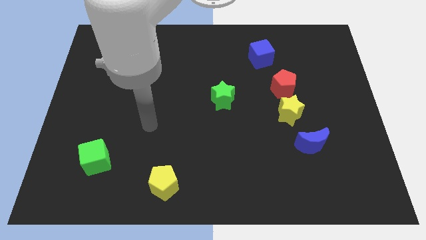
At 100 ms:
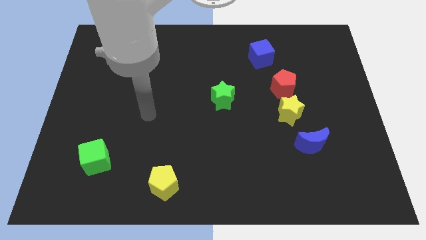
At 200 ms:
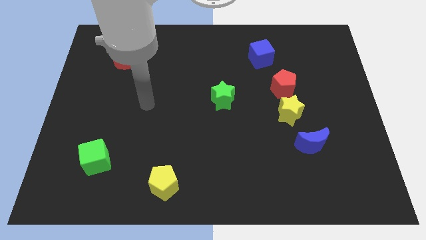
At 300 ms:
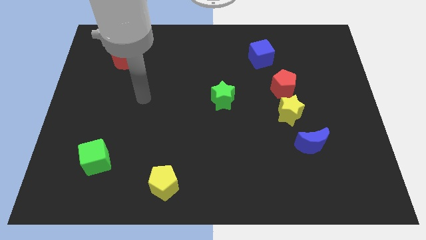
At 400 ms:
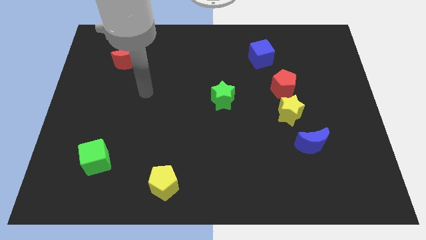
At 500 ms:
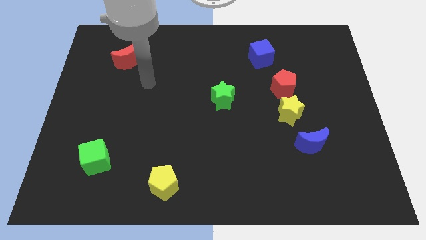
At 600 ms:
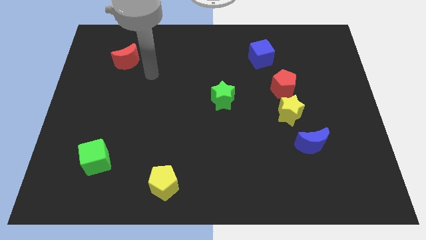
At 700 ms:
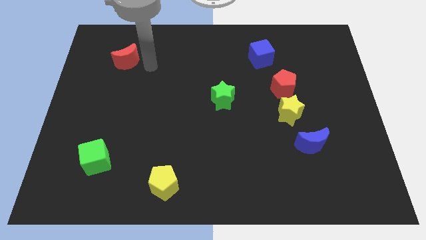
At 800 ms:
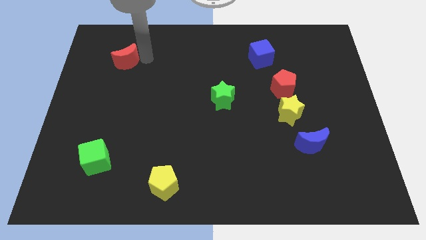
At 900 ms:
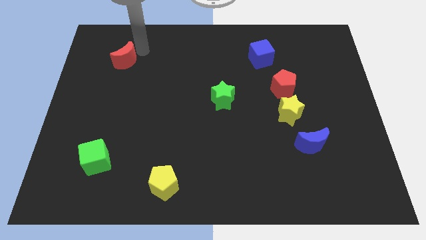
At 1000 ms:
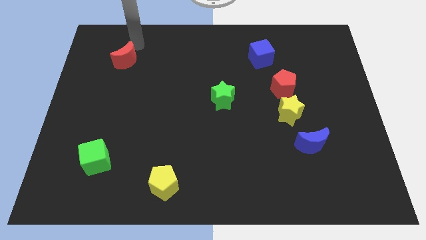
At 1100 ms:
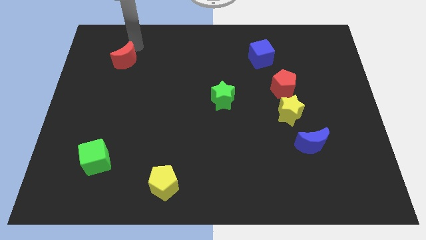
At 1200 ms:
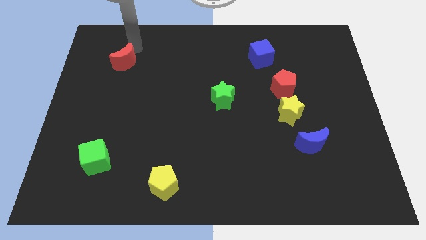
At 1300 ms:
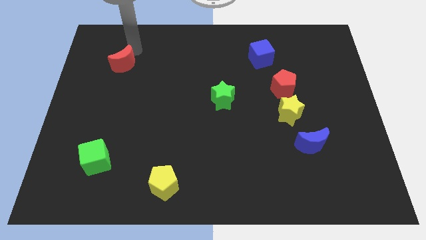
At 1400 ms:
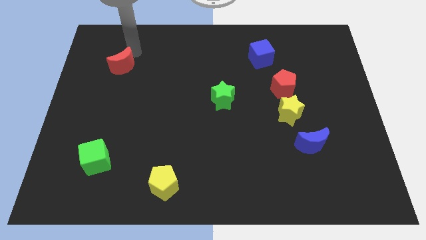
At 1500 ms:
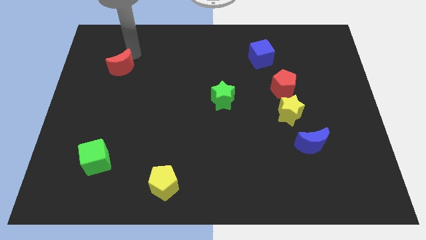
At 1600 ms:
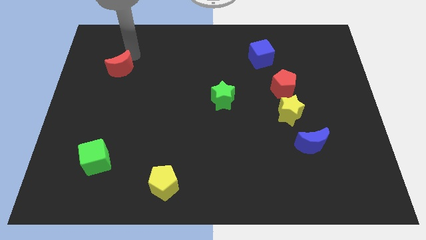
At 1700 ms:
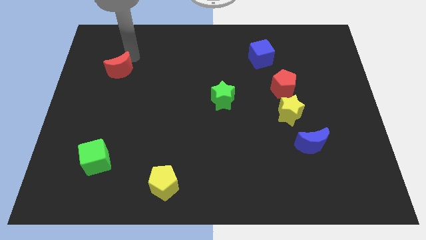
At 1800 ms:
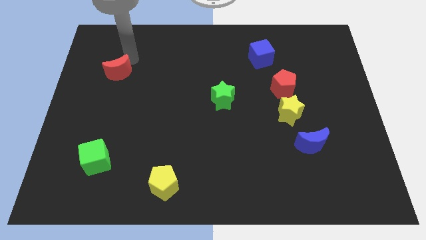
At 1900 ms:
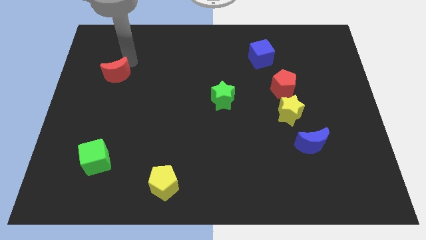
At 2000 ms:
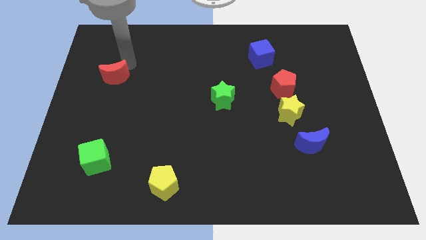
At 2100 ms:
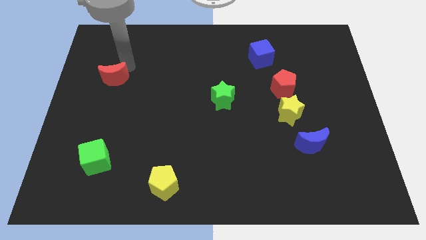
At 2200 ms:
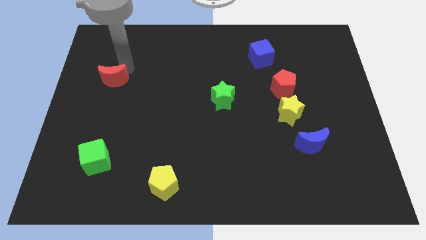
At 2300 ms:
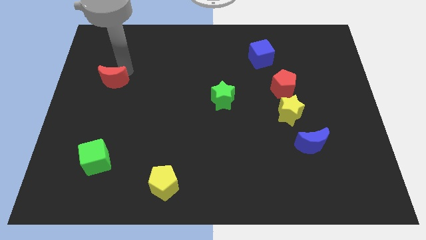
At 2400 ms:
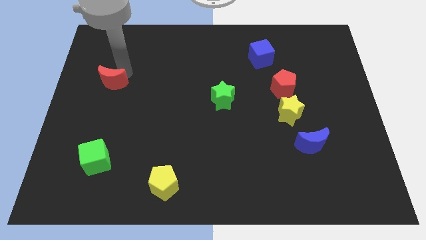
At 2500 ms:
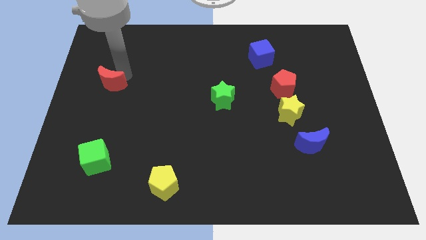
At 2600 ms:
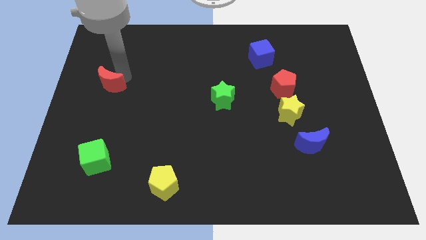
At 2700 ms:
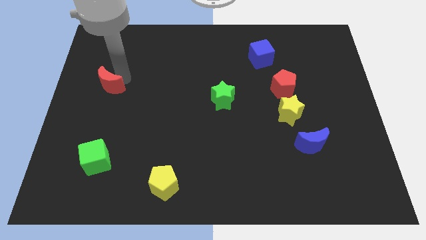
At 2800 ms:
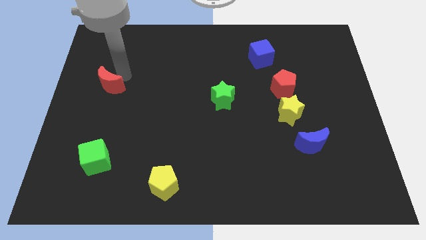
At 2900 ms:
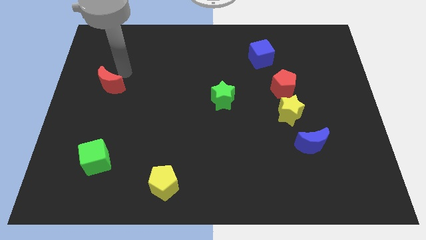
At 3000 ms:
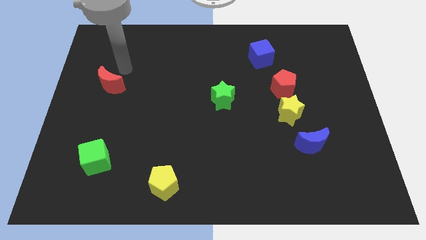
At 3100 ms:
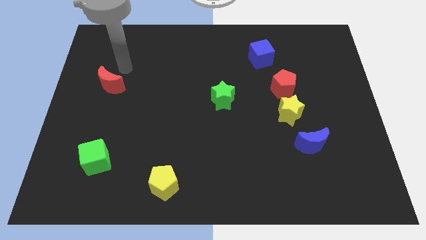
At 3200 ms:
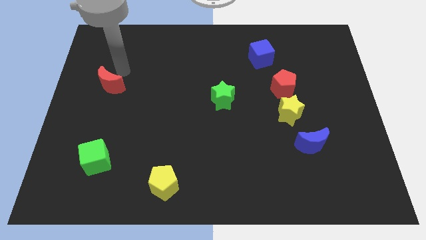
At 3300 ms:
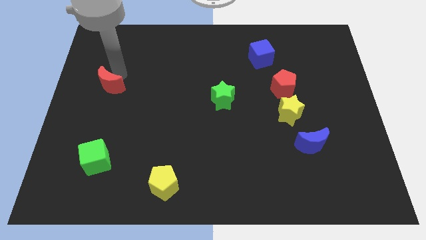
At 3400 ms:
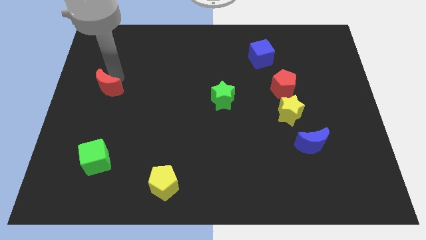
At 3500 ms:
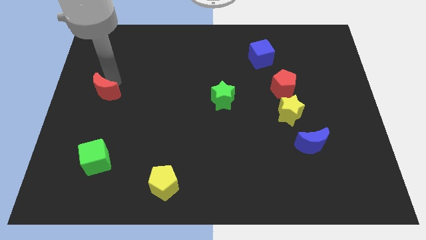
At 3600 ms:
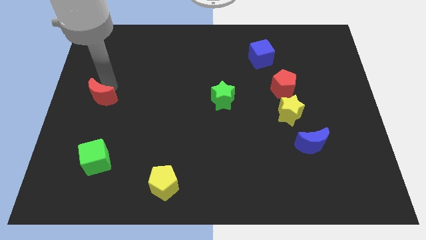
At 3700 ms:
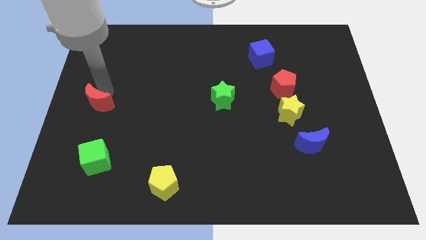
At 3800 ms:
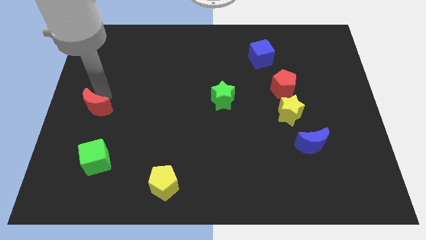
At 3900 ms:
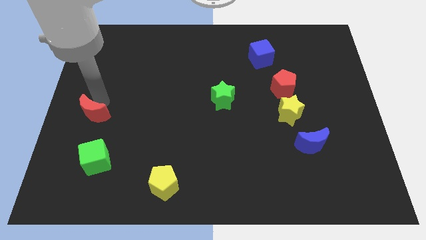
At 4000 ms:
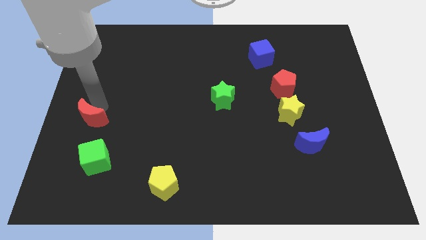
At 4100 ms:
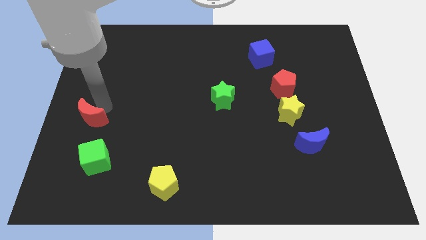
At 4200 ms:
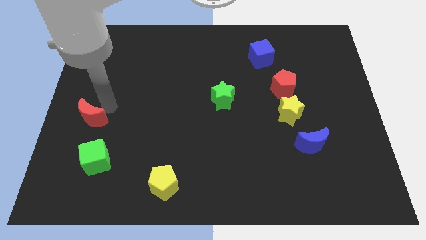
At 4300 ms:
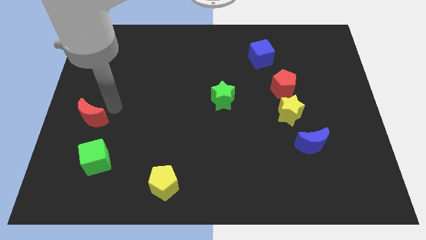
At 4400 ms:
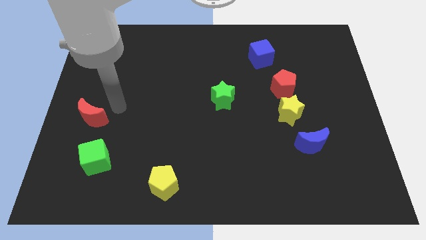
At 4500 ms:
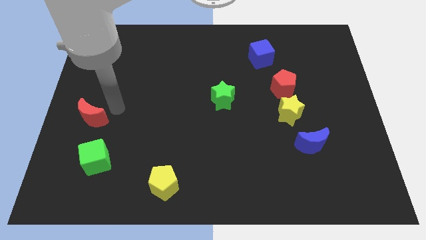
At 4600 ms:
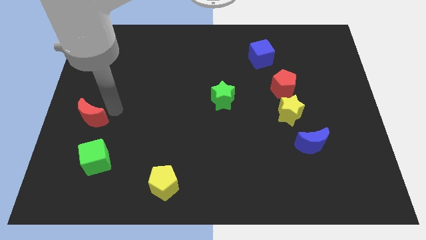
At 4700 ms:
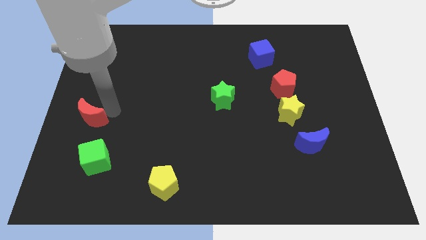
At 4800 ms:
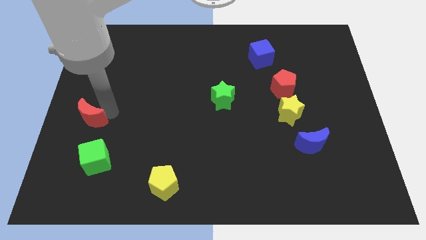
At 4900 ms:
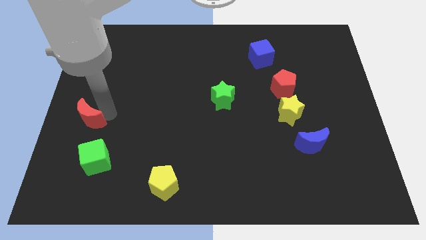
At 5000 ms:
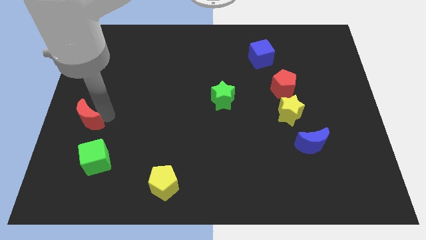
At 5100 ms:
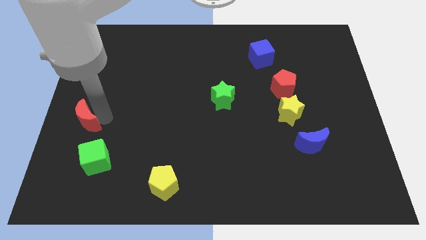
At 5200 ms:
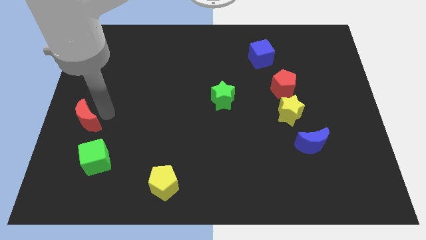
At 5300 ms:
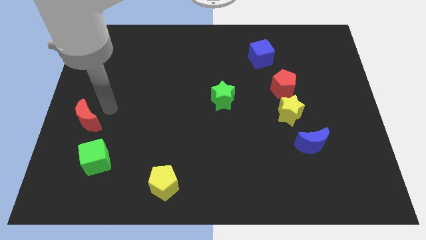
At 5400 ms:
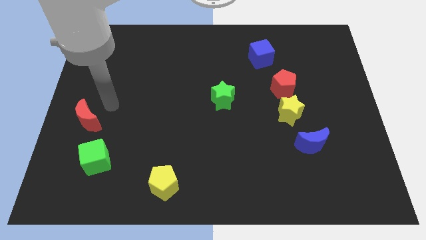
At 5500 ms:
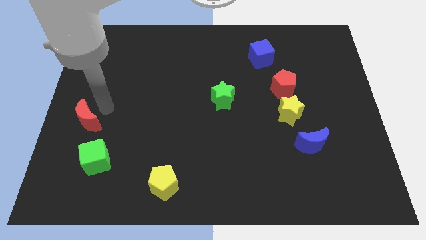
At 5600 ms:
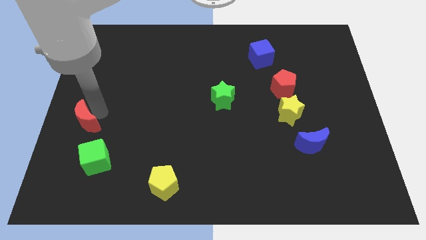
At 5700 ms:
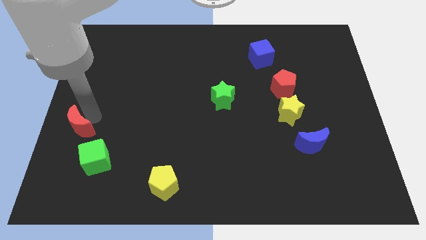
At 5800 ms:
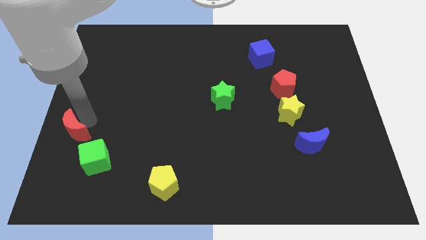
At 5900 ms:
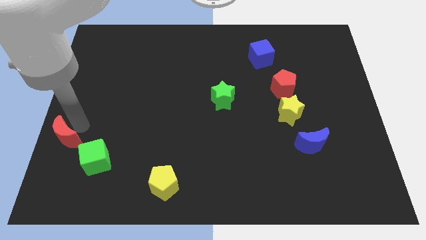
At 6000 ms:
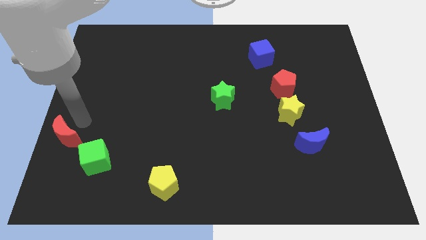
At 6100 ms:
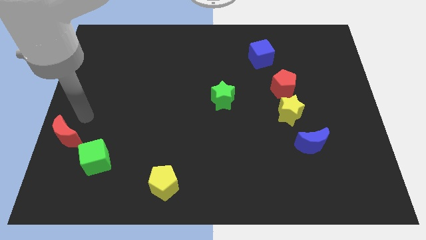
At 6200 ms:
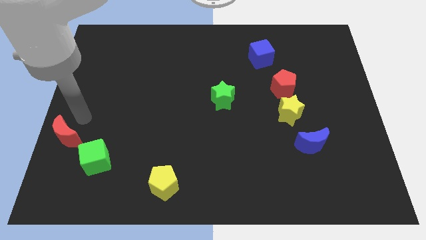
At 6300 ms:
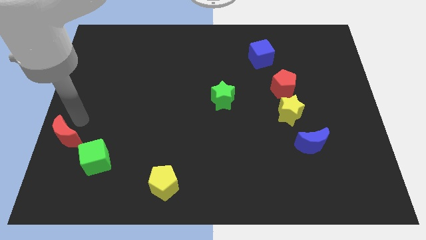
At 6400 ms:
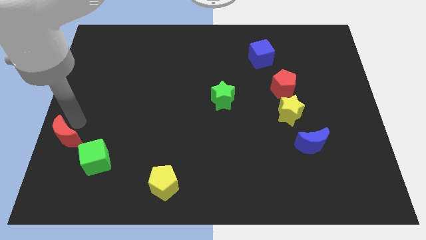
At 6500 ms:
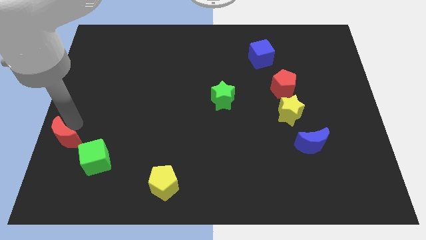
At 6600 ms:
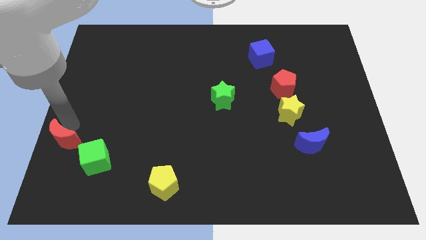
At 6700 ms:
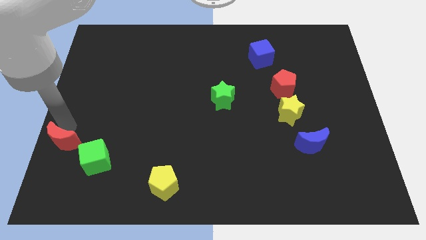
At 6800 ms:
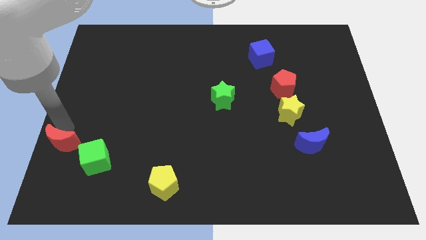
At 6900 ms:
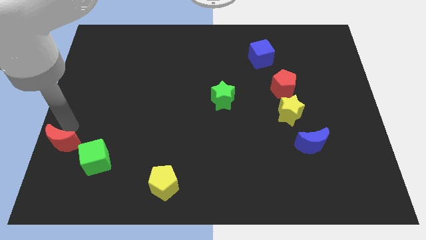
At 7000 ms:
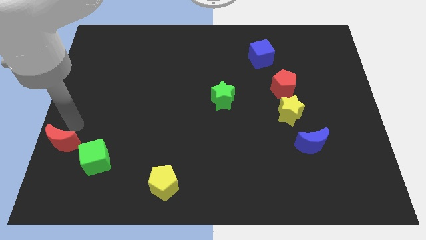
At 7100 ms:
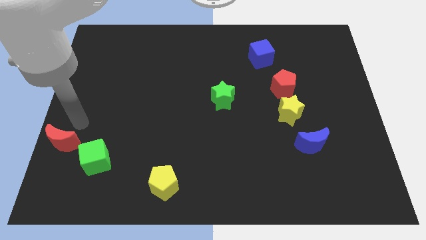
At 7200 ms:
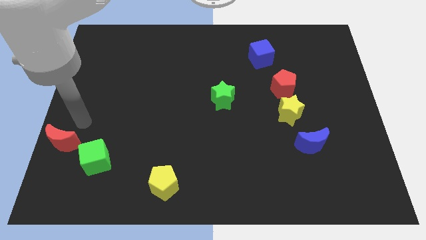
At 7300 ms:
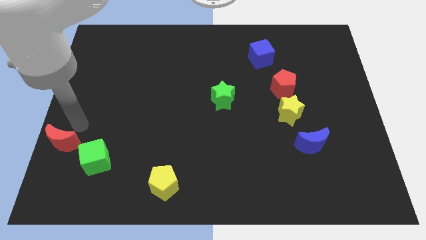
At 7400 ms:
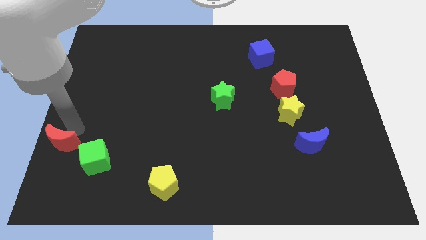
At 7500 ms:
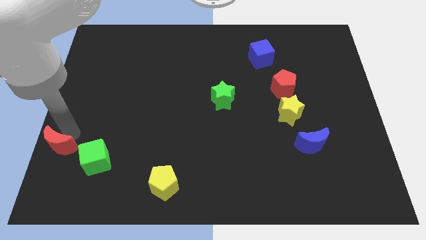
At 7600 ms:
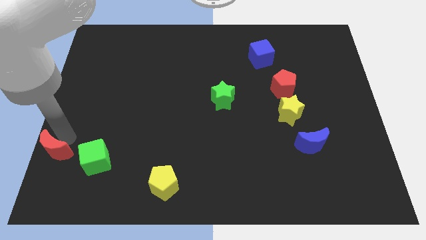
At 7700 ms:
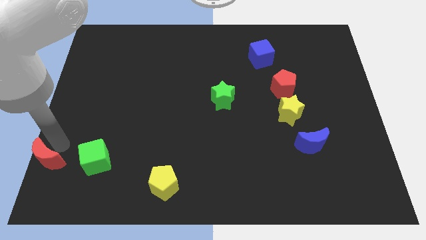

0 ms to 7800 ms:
move the red moon to the bottom left
